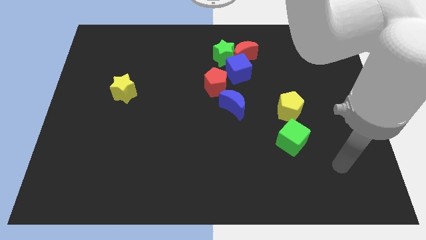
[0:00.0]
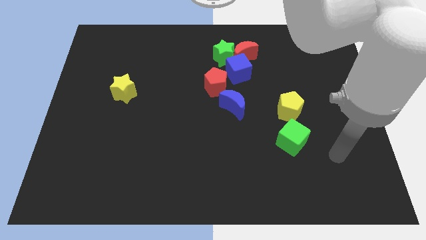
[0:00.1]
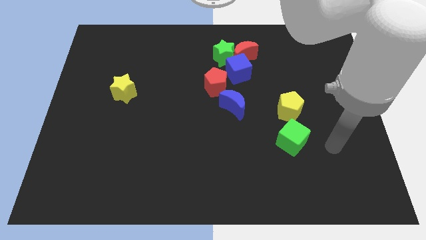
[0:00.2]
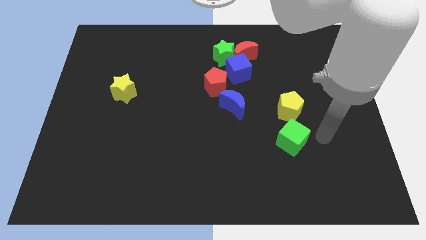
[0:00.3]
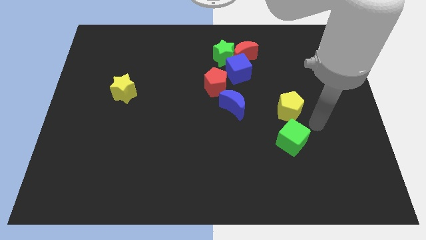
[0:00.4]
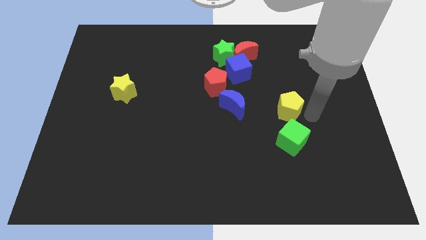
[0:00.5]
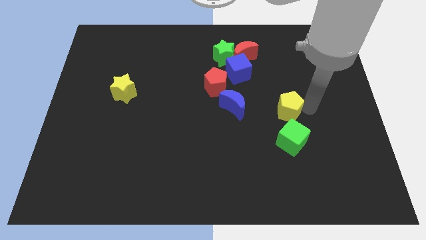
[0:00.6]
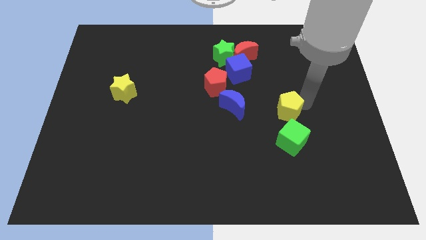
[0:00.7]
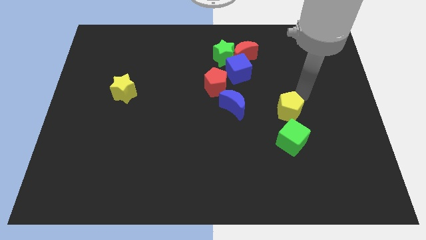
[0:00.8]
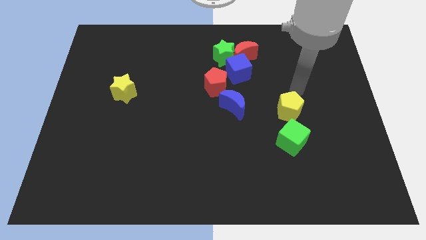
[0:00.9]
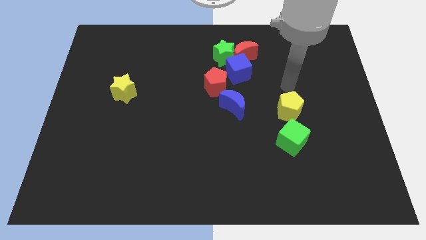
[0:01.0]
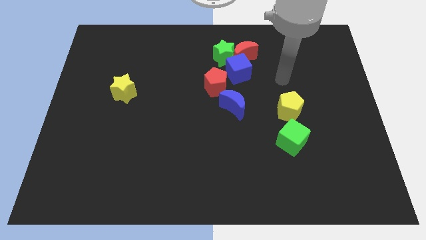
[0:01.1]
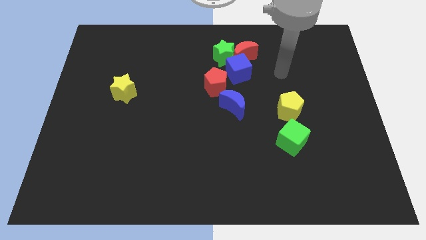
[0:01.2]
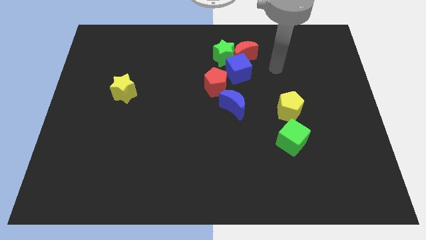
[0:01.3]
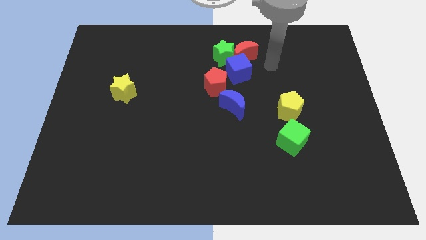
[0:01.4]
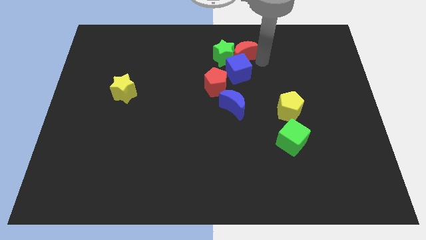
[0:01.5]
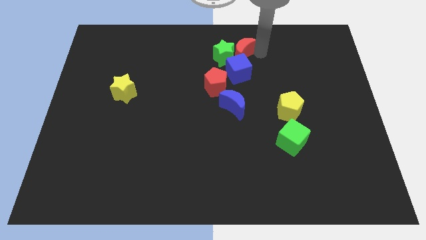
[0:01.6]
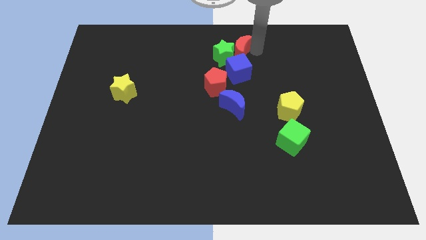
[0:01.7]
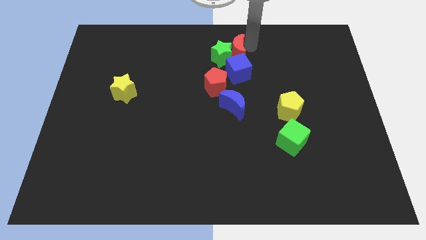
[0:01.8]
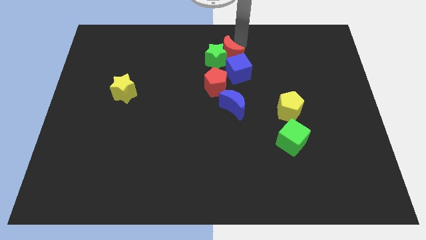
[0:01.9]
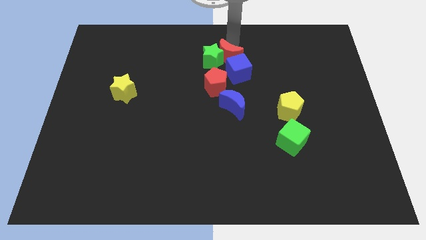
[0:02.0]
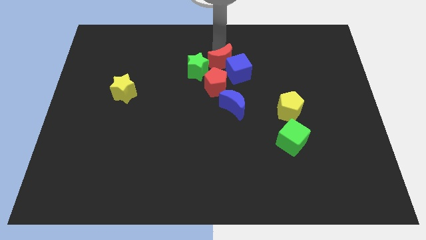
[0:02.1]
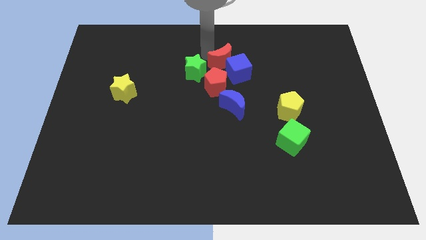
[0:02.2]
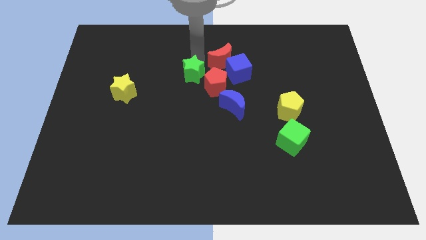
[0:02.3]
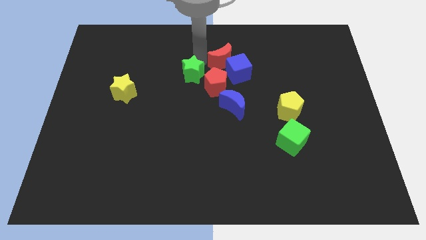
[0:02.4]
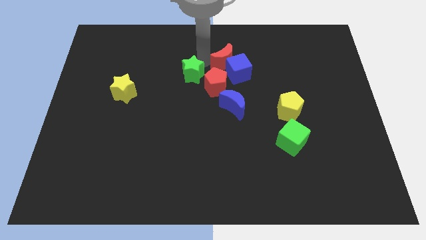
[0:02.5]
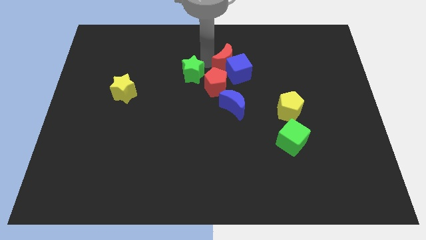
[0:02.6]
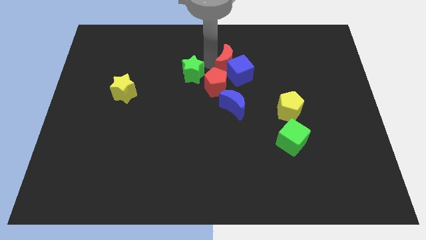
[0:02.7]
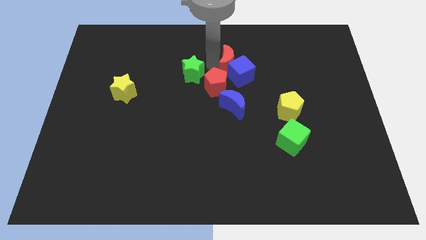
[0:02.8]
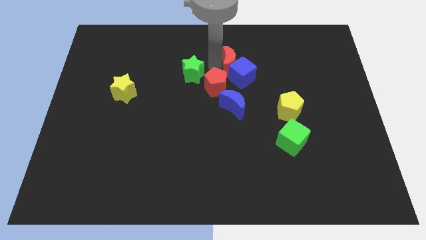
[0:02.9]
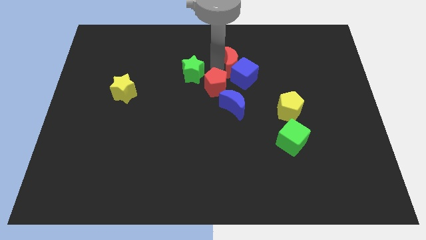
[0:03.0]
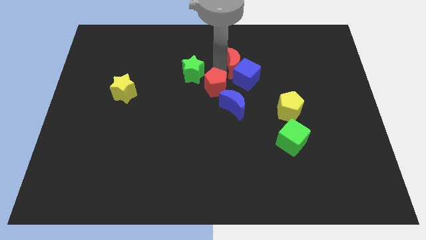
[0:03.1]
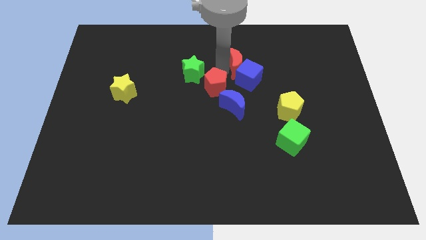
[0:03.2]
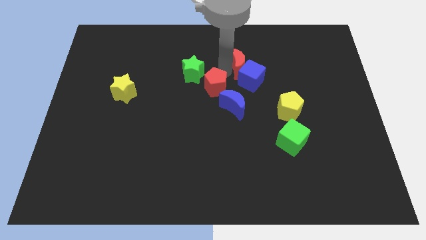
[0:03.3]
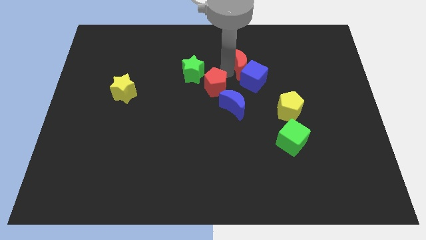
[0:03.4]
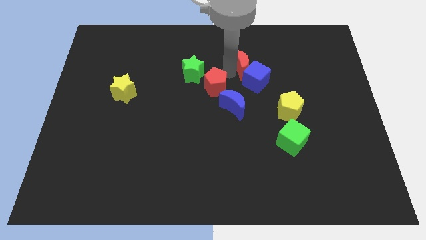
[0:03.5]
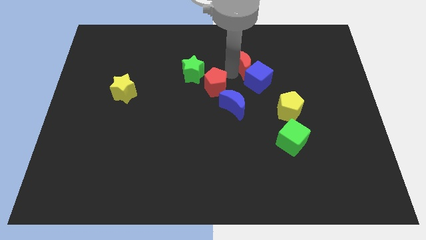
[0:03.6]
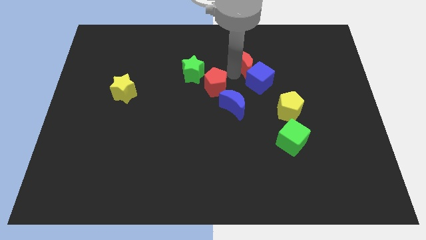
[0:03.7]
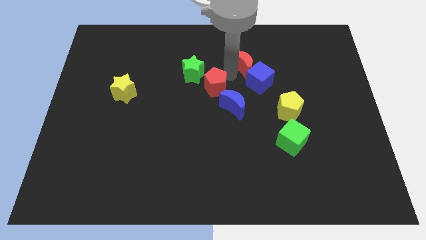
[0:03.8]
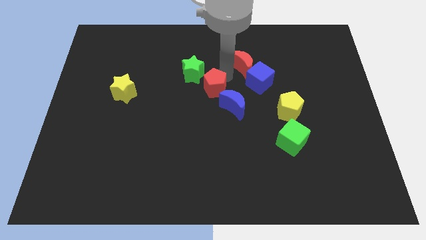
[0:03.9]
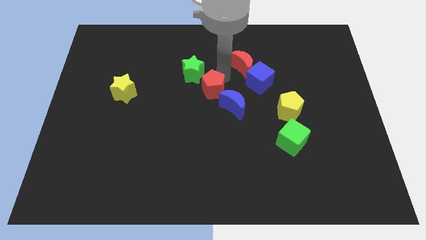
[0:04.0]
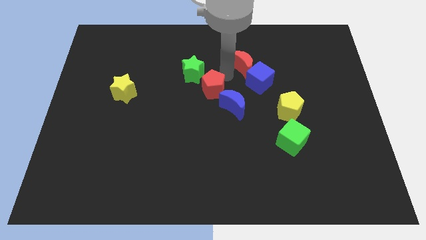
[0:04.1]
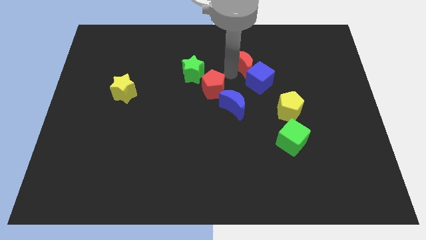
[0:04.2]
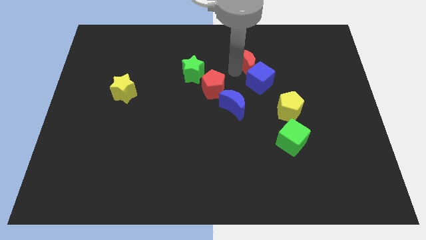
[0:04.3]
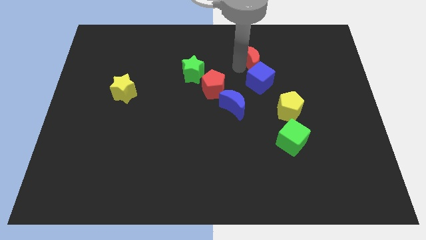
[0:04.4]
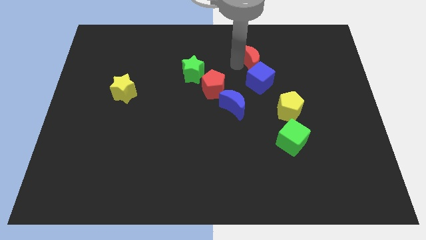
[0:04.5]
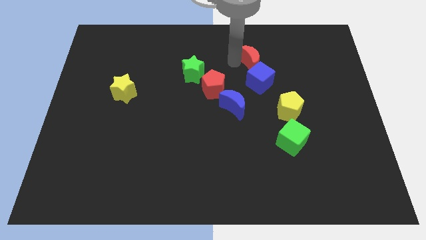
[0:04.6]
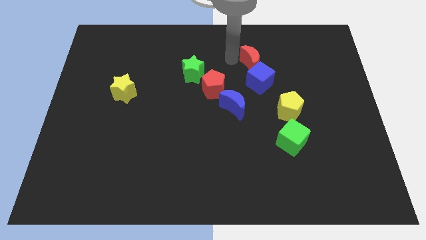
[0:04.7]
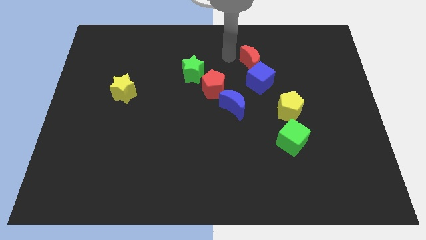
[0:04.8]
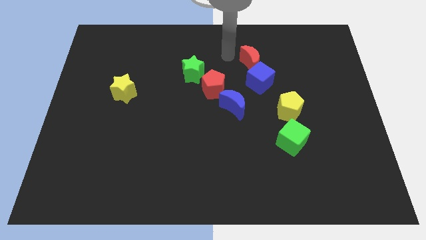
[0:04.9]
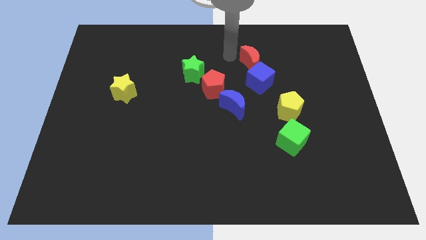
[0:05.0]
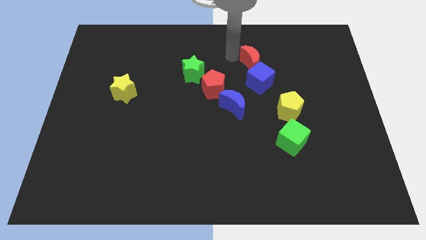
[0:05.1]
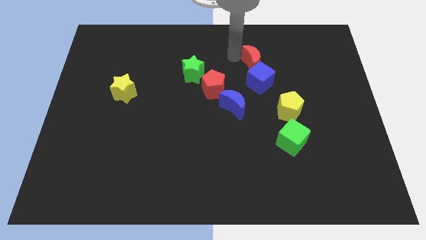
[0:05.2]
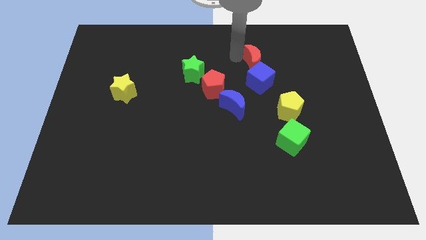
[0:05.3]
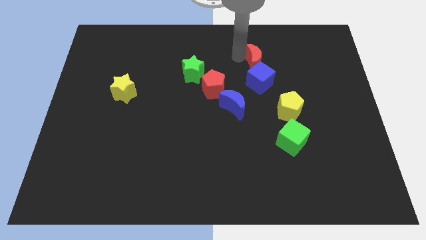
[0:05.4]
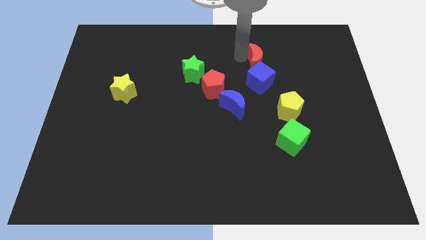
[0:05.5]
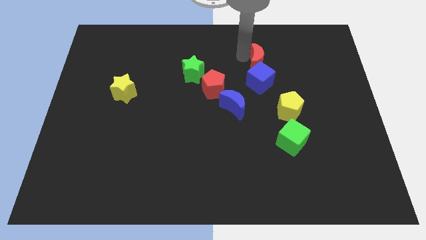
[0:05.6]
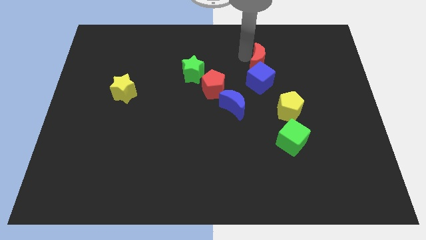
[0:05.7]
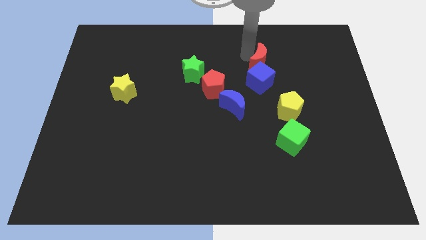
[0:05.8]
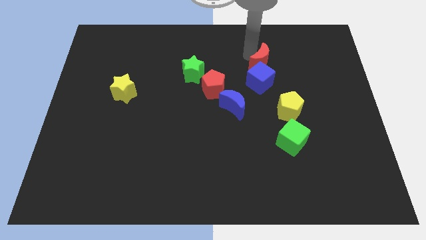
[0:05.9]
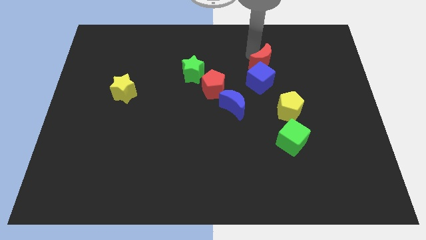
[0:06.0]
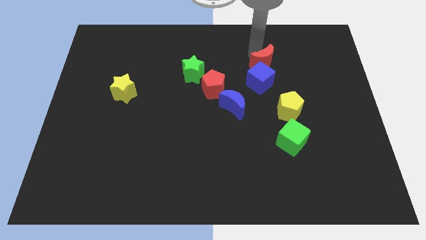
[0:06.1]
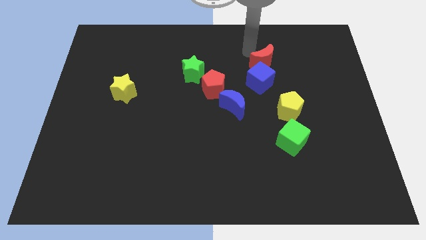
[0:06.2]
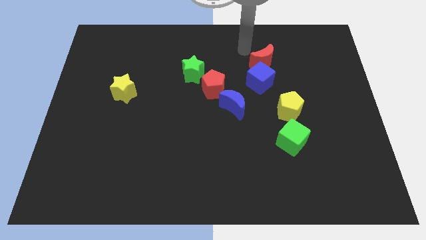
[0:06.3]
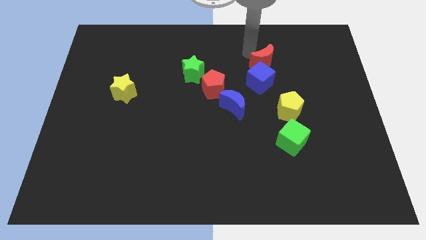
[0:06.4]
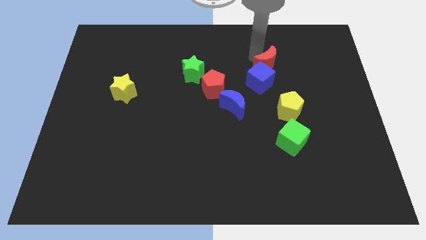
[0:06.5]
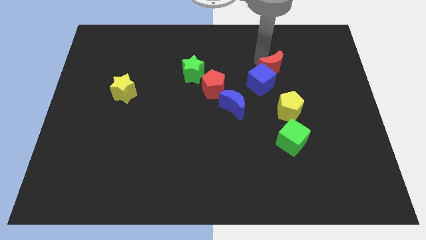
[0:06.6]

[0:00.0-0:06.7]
push the red moon diagonally down and to the right a little bit

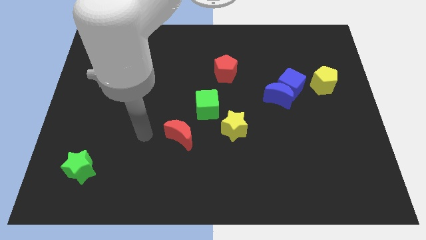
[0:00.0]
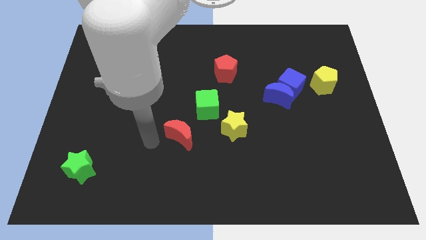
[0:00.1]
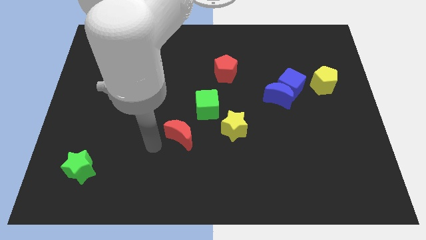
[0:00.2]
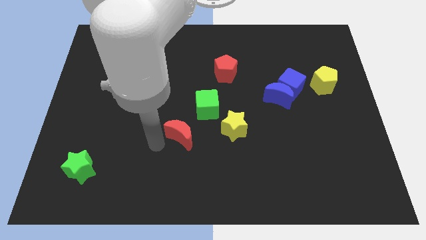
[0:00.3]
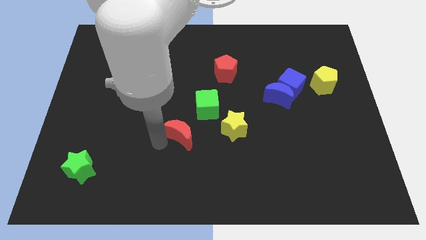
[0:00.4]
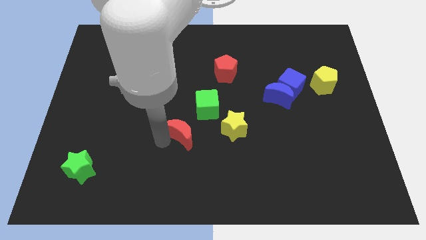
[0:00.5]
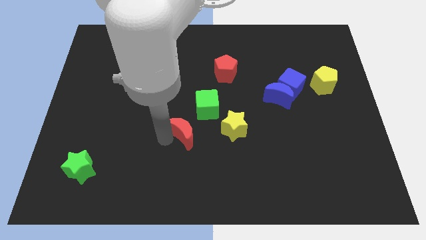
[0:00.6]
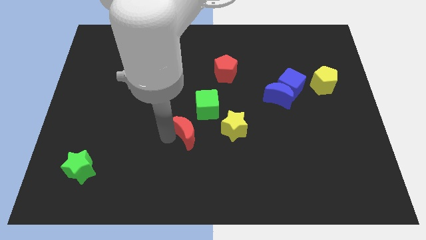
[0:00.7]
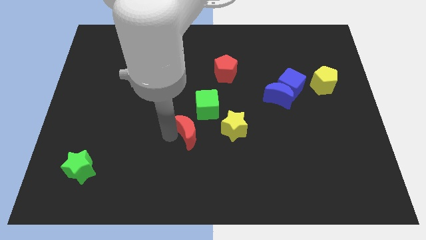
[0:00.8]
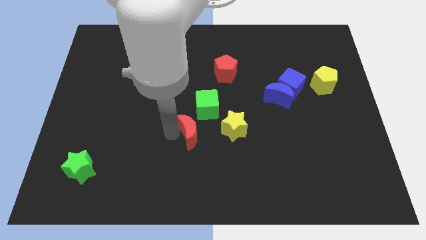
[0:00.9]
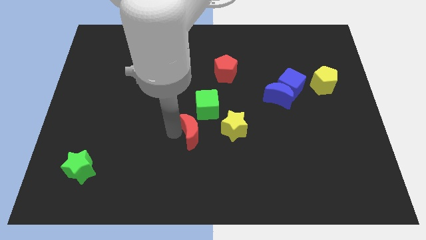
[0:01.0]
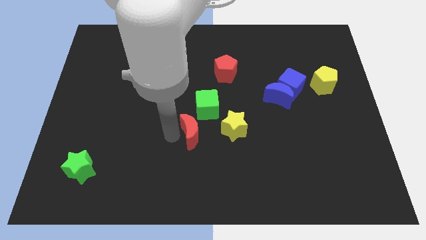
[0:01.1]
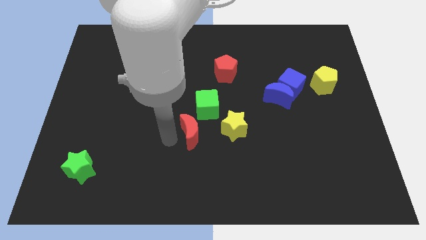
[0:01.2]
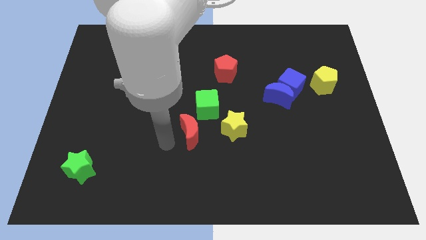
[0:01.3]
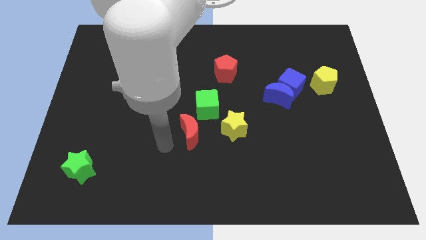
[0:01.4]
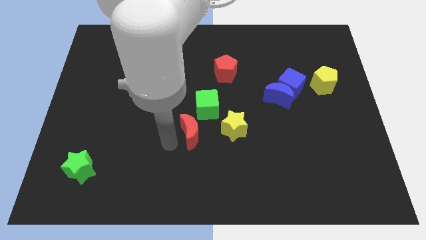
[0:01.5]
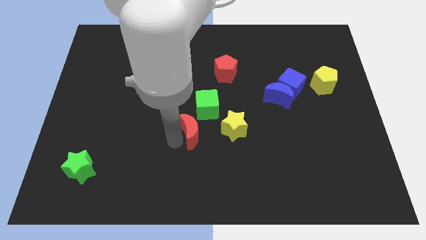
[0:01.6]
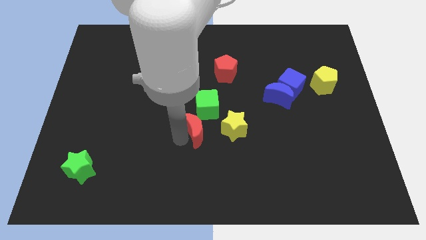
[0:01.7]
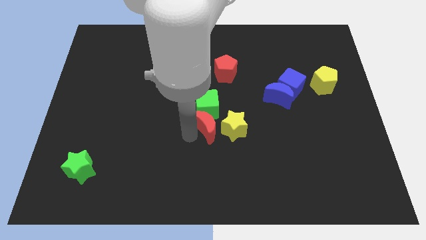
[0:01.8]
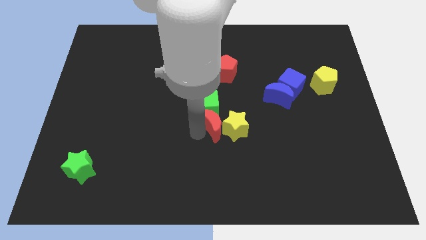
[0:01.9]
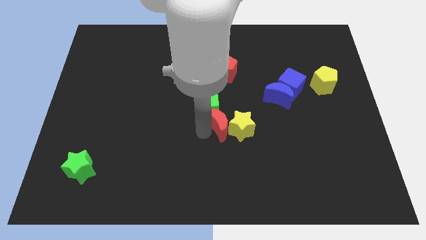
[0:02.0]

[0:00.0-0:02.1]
slide the red moon somewhat upwards and then to the right
